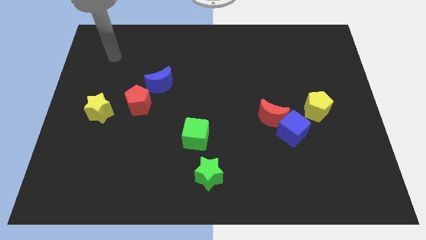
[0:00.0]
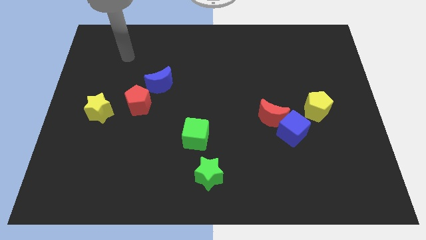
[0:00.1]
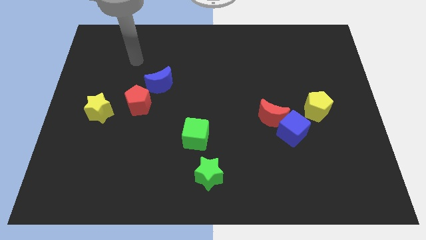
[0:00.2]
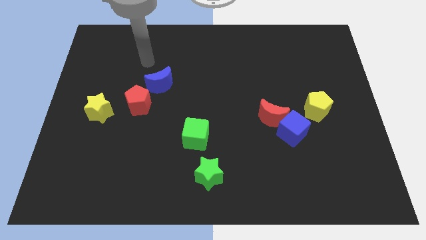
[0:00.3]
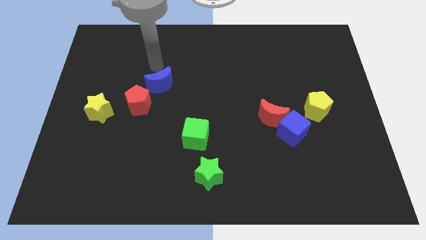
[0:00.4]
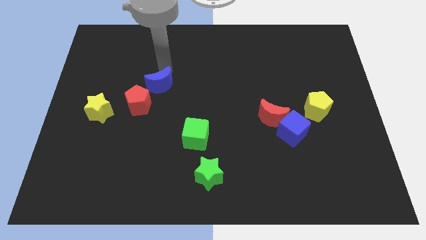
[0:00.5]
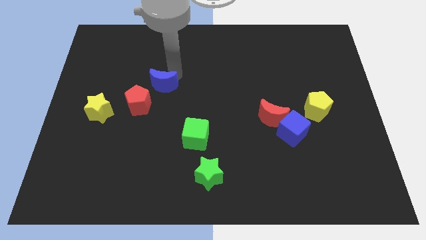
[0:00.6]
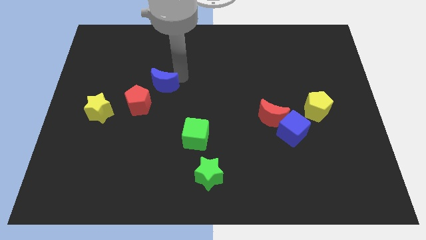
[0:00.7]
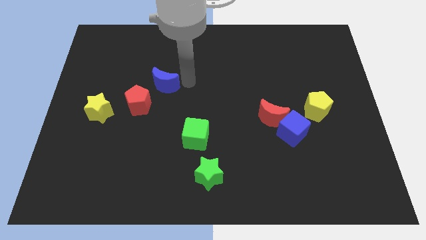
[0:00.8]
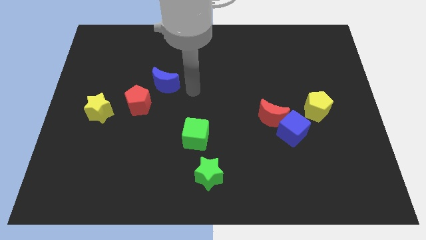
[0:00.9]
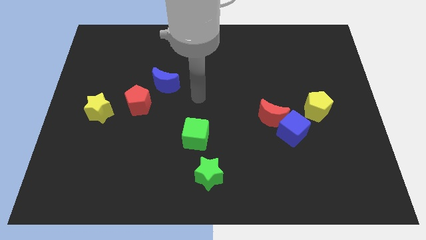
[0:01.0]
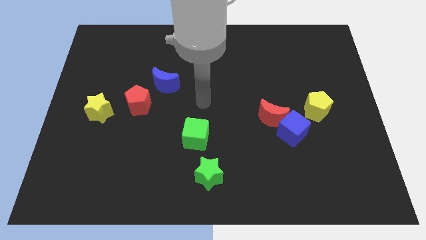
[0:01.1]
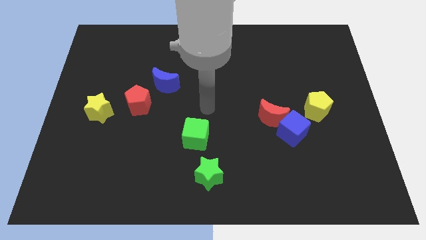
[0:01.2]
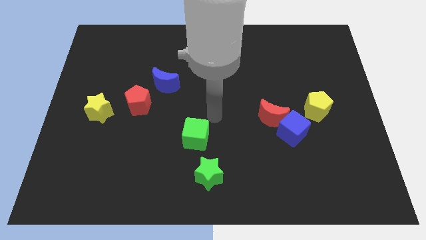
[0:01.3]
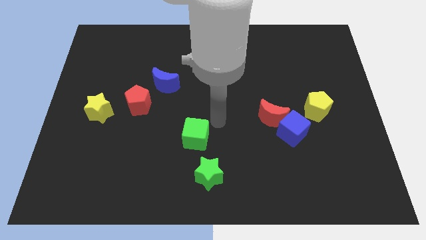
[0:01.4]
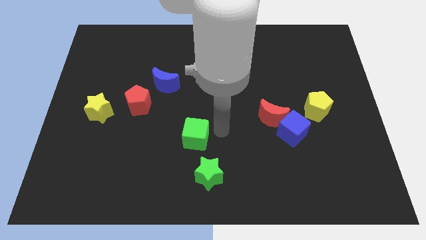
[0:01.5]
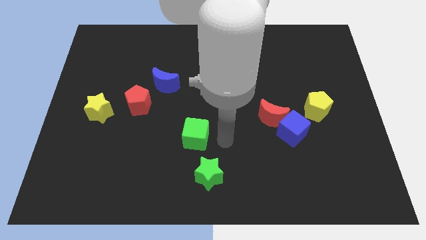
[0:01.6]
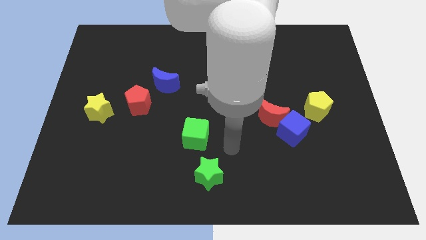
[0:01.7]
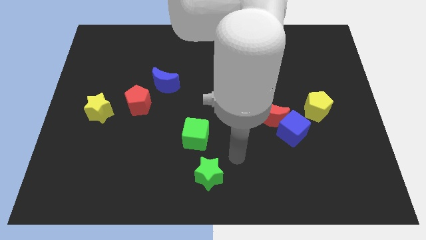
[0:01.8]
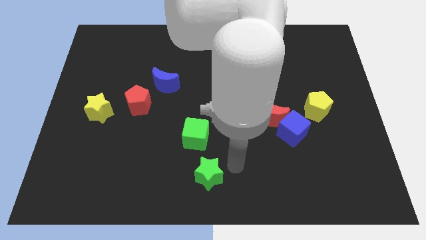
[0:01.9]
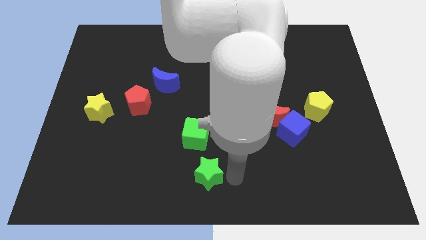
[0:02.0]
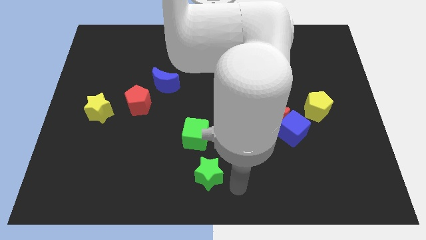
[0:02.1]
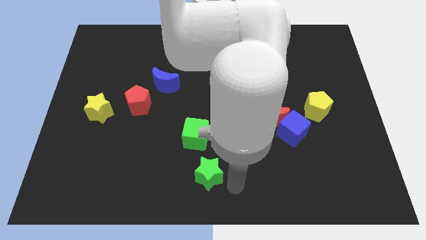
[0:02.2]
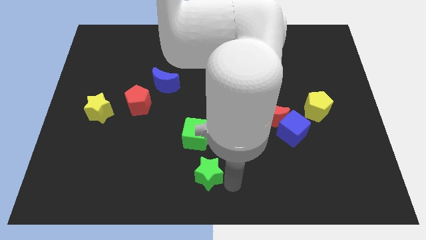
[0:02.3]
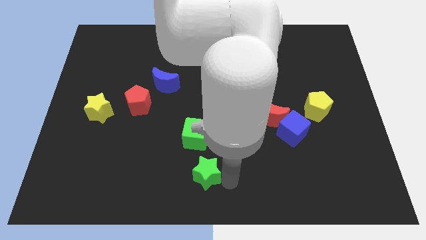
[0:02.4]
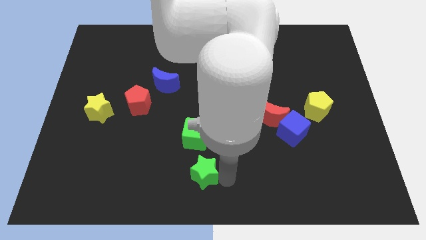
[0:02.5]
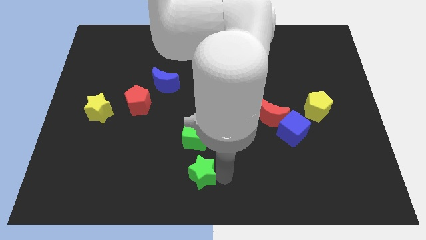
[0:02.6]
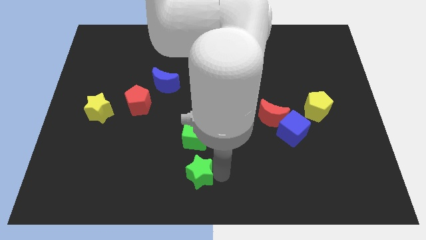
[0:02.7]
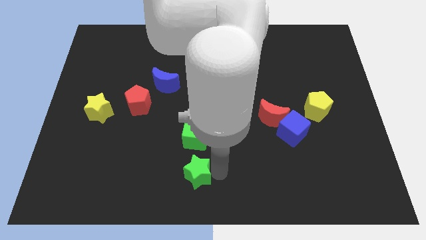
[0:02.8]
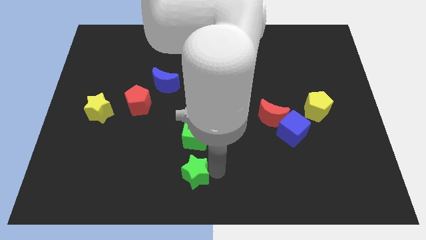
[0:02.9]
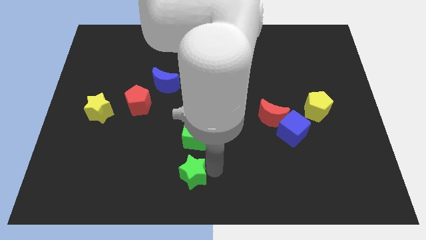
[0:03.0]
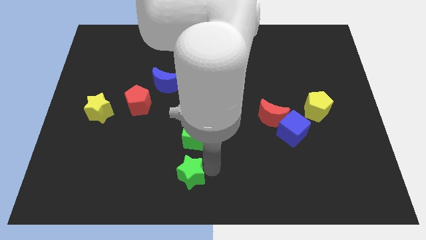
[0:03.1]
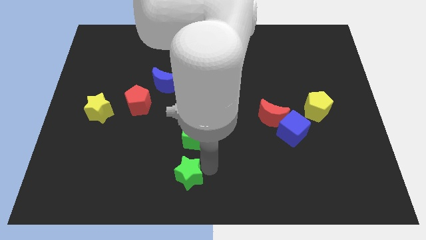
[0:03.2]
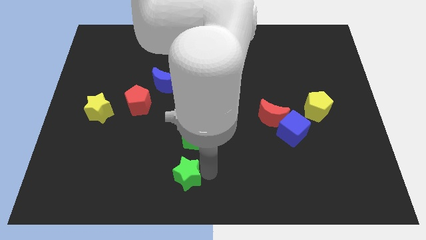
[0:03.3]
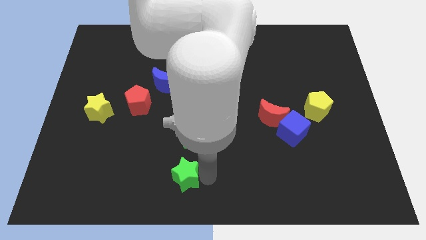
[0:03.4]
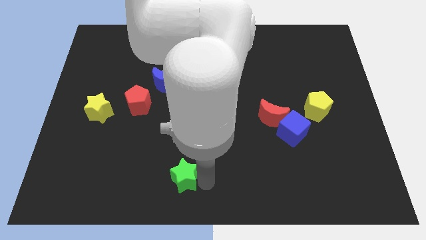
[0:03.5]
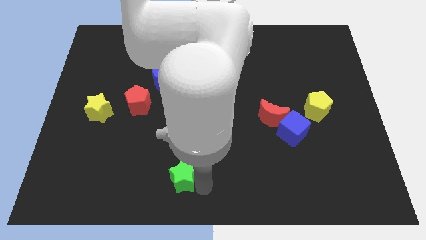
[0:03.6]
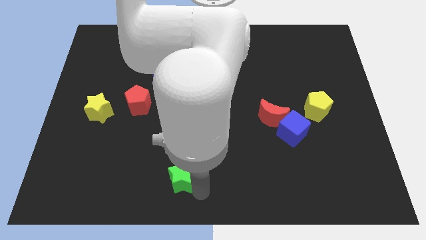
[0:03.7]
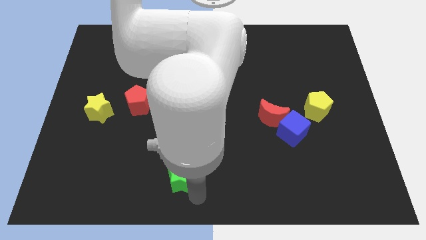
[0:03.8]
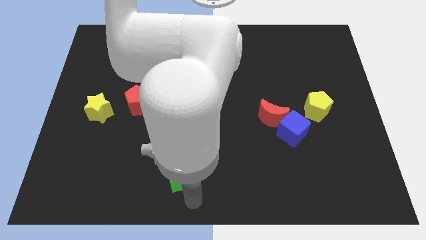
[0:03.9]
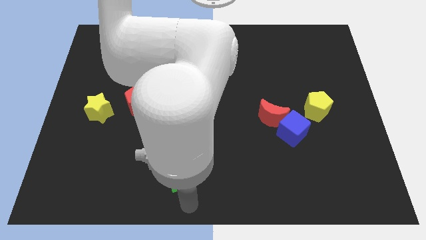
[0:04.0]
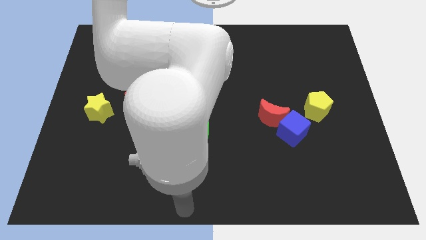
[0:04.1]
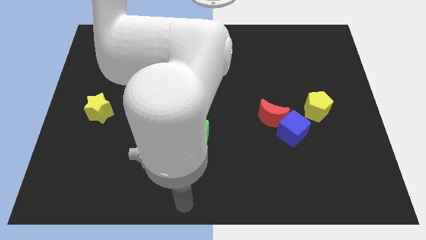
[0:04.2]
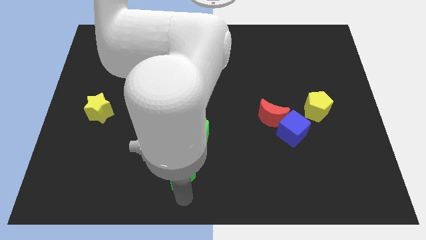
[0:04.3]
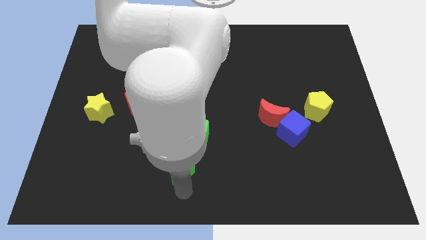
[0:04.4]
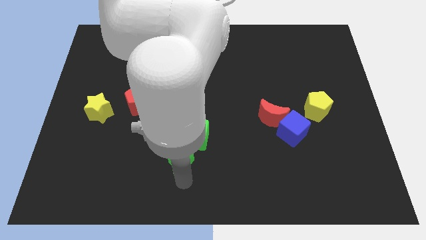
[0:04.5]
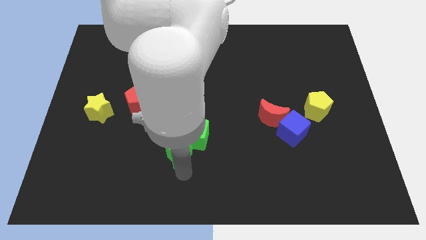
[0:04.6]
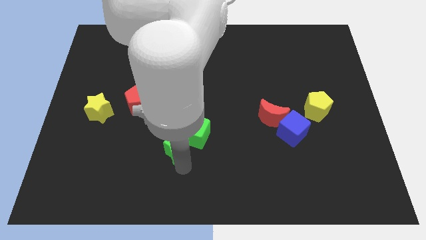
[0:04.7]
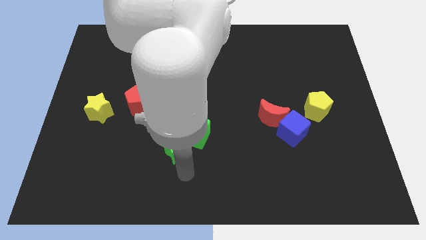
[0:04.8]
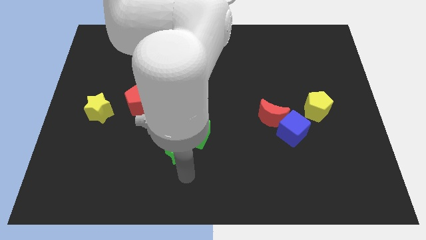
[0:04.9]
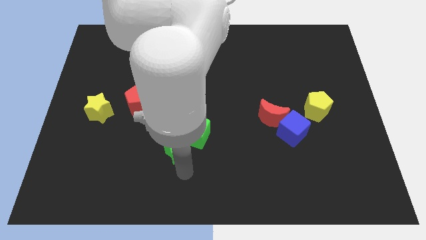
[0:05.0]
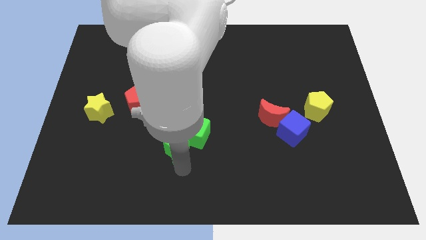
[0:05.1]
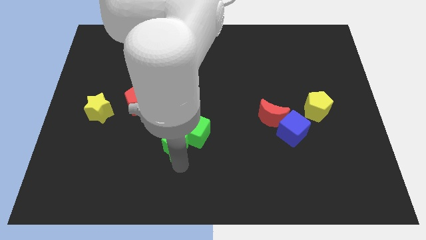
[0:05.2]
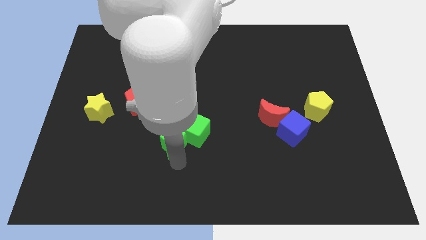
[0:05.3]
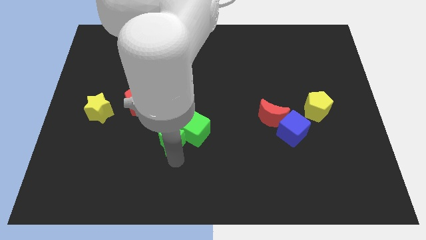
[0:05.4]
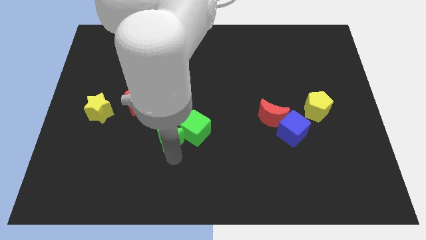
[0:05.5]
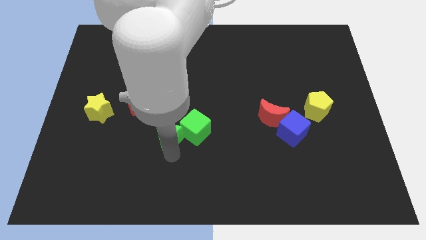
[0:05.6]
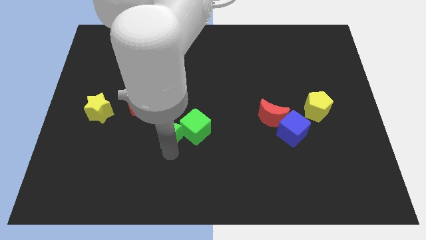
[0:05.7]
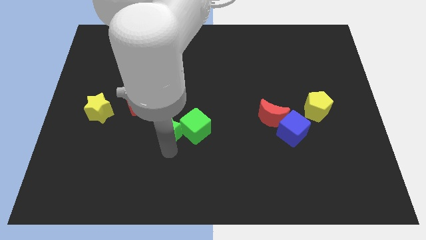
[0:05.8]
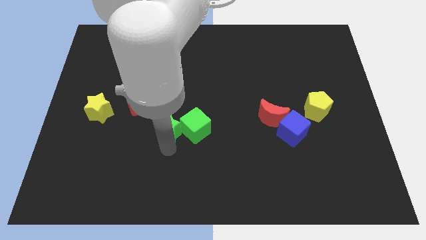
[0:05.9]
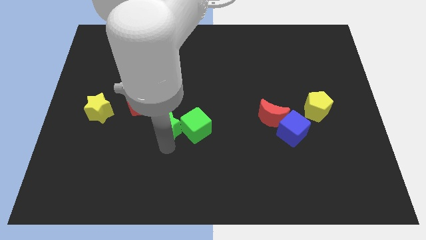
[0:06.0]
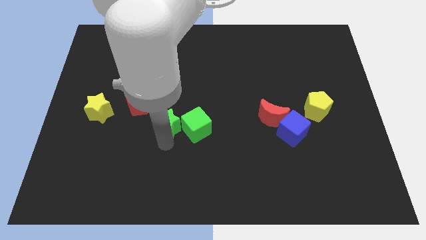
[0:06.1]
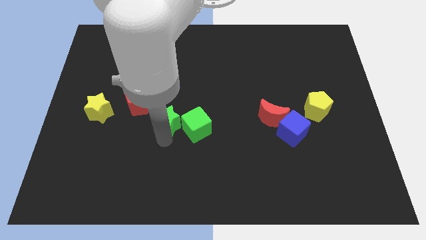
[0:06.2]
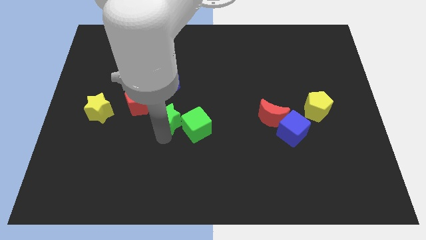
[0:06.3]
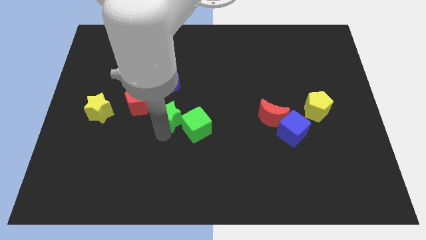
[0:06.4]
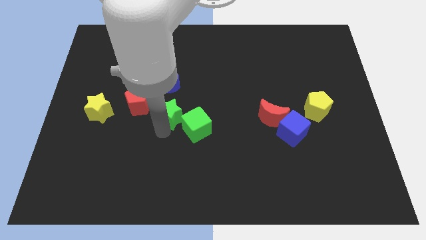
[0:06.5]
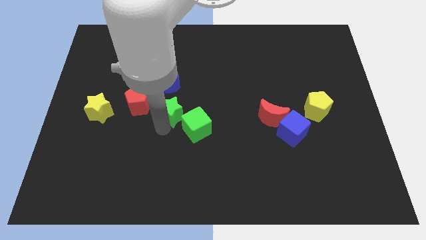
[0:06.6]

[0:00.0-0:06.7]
put the green star to the bottom right of the blue moon
